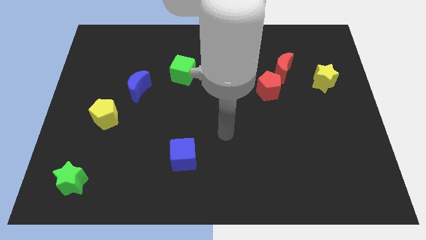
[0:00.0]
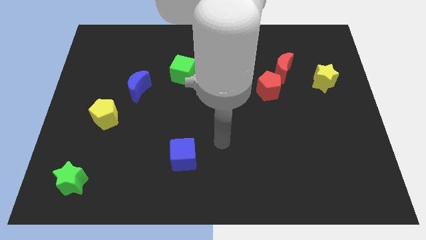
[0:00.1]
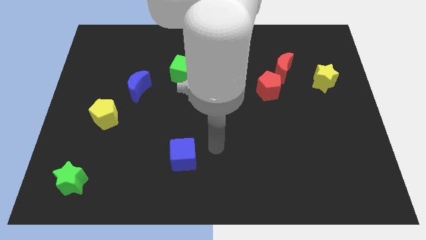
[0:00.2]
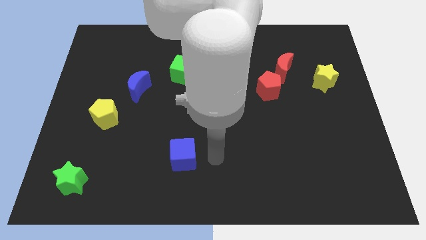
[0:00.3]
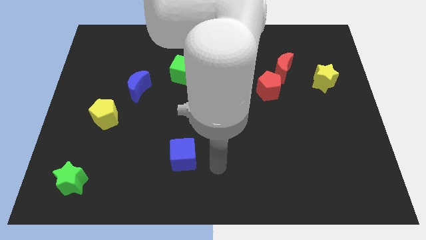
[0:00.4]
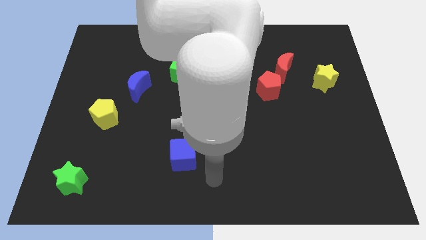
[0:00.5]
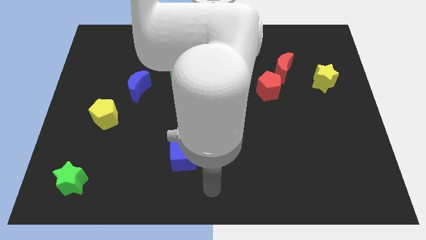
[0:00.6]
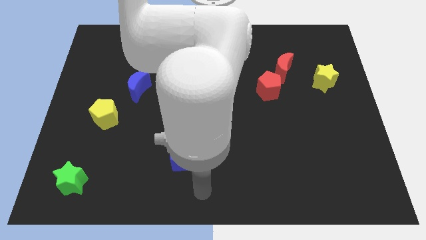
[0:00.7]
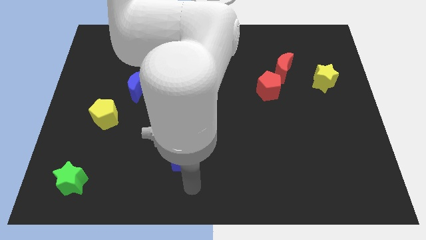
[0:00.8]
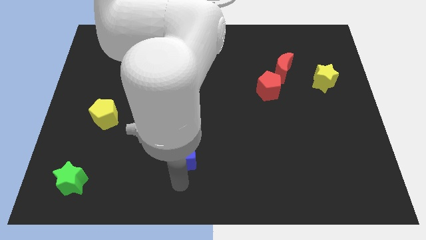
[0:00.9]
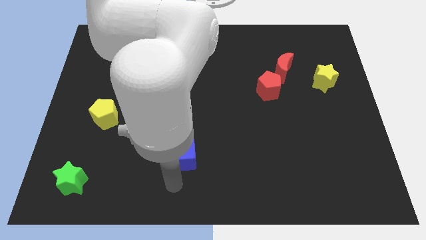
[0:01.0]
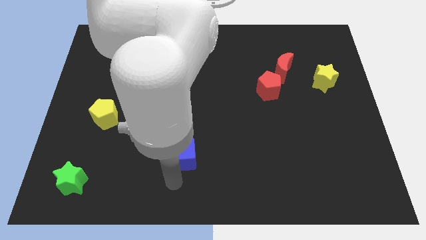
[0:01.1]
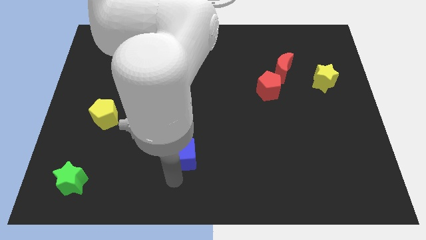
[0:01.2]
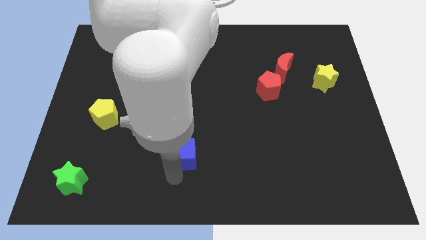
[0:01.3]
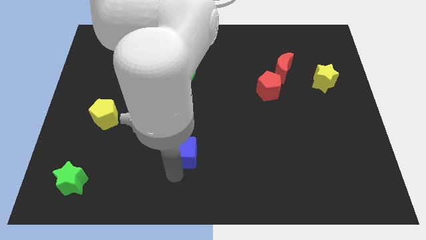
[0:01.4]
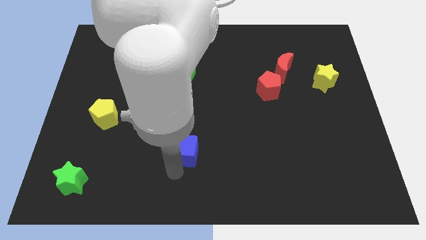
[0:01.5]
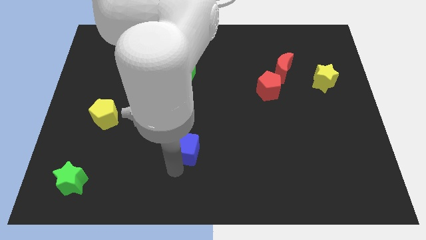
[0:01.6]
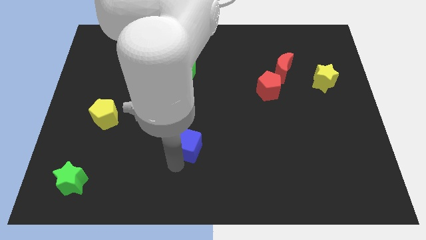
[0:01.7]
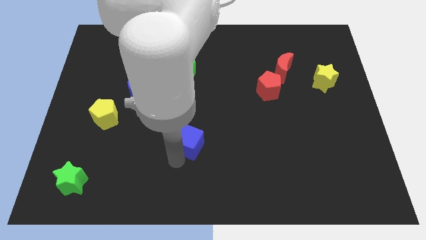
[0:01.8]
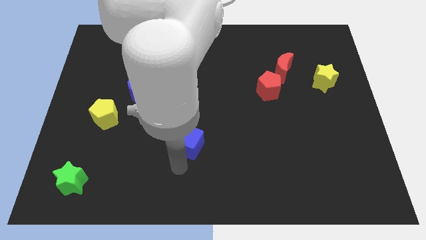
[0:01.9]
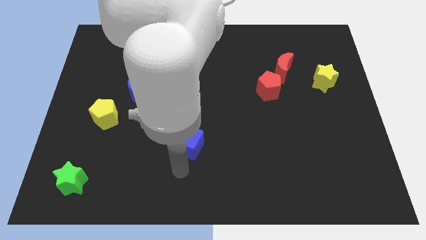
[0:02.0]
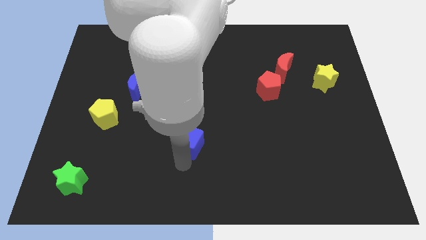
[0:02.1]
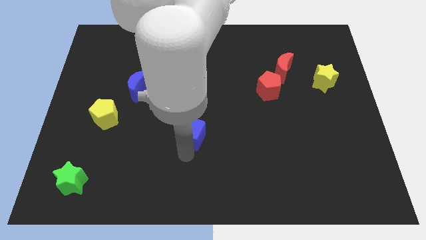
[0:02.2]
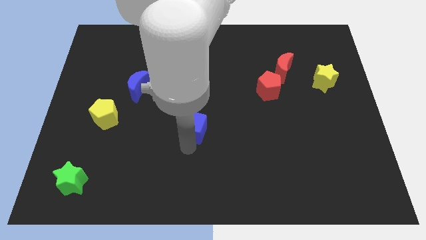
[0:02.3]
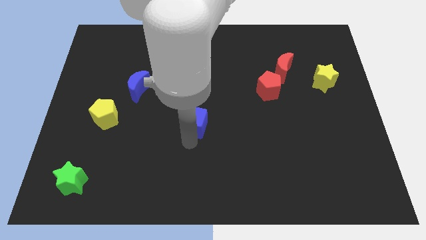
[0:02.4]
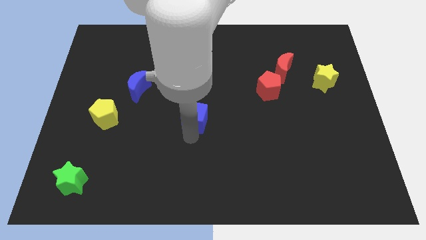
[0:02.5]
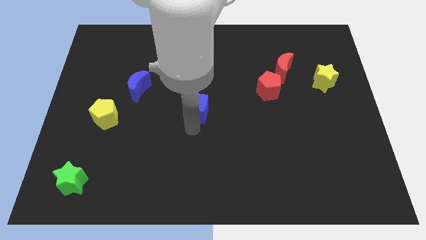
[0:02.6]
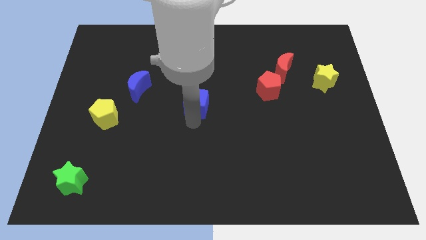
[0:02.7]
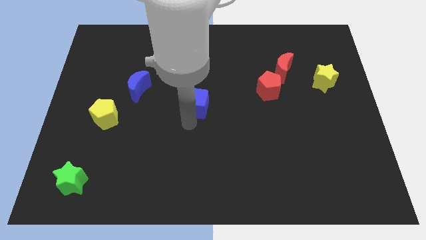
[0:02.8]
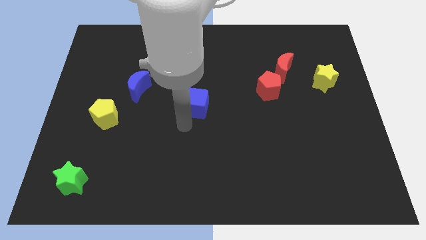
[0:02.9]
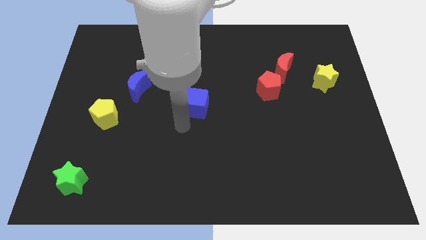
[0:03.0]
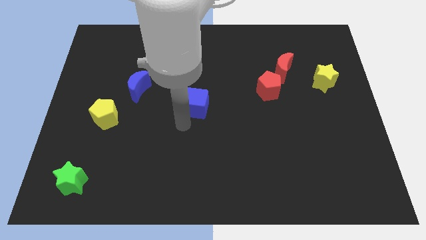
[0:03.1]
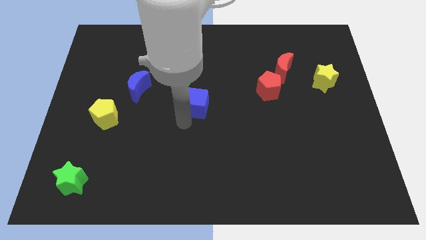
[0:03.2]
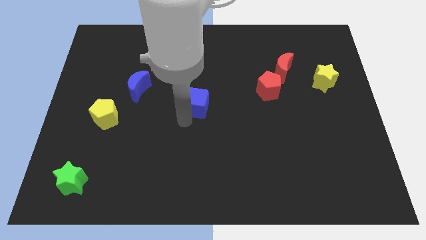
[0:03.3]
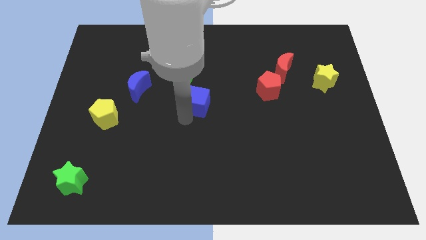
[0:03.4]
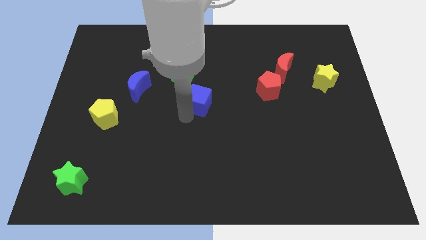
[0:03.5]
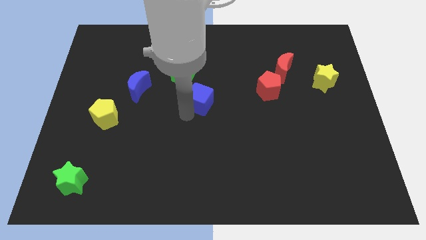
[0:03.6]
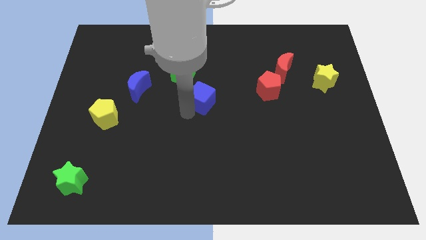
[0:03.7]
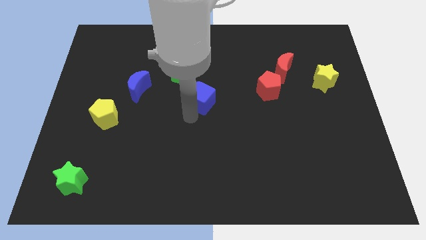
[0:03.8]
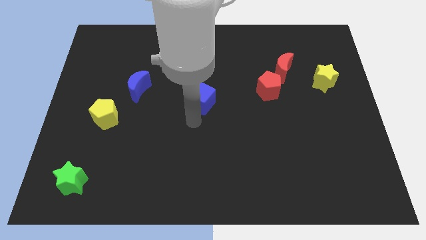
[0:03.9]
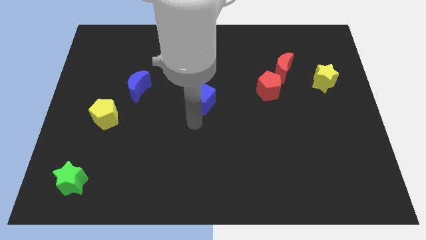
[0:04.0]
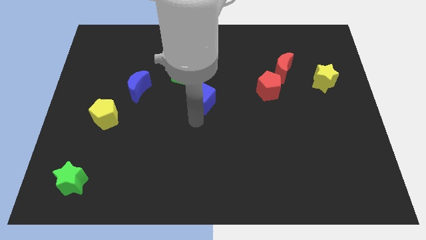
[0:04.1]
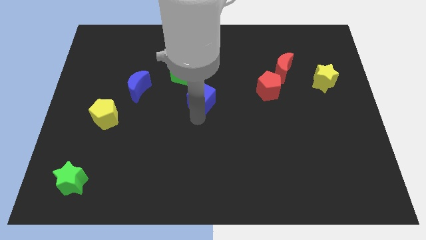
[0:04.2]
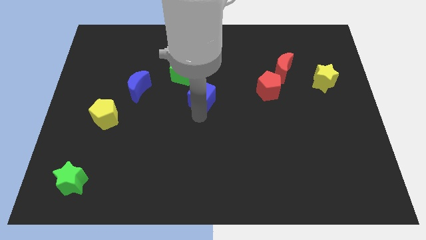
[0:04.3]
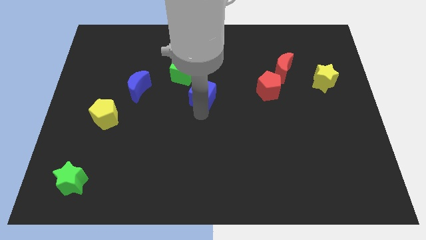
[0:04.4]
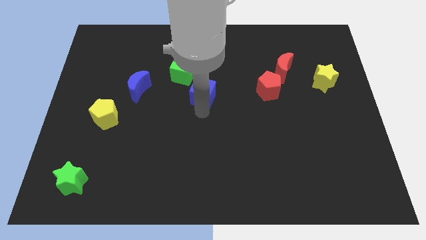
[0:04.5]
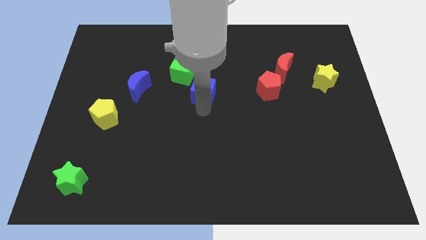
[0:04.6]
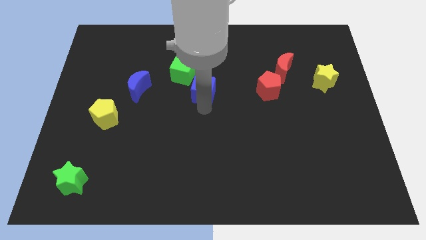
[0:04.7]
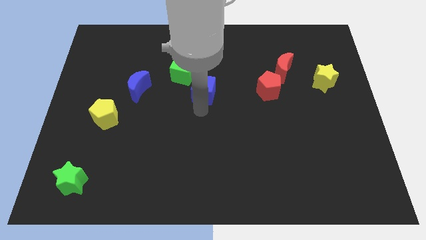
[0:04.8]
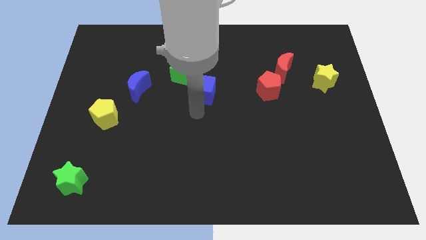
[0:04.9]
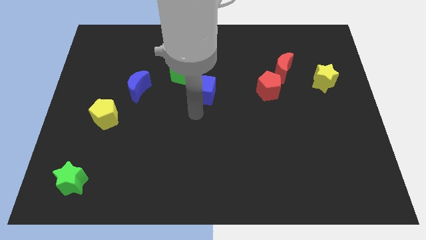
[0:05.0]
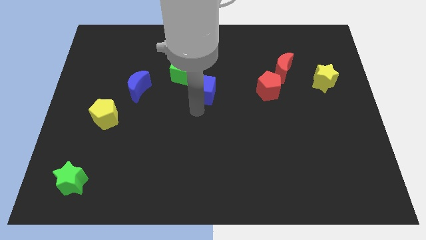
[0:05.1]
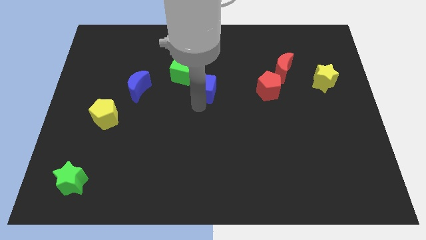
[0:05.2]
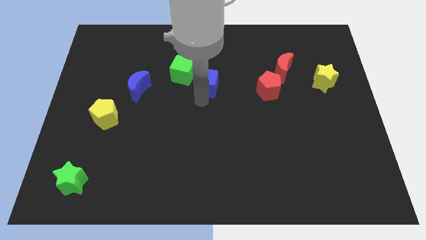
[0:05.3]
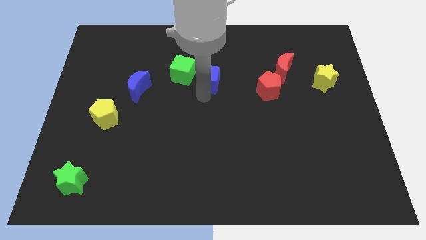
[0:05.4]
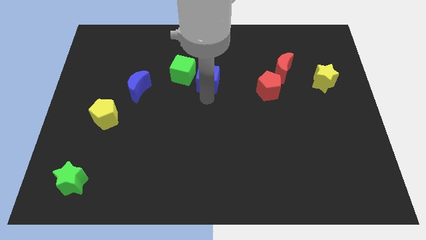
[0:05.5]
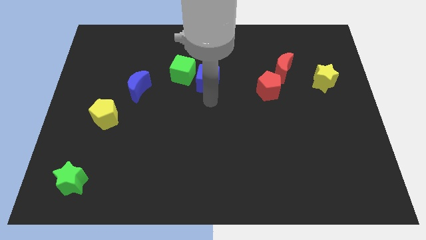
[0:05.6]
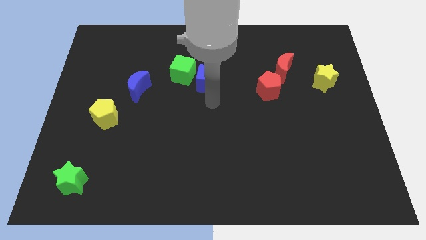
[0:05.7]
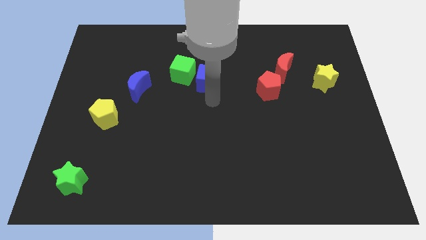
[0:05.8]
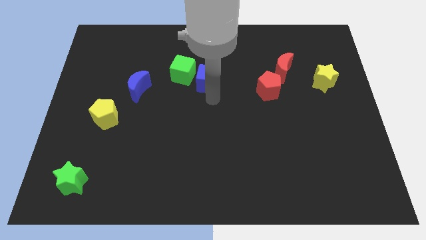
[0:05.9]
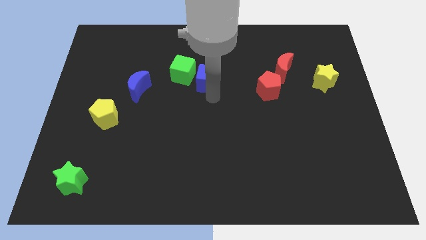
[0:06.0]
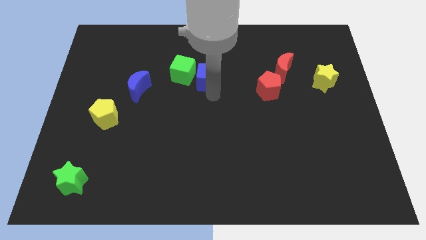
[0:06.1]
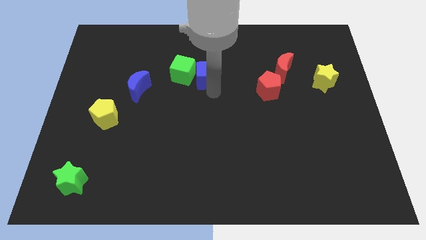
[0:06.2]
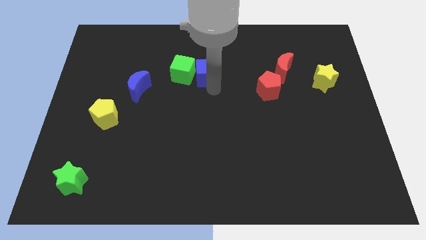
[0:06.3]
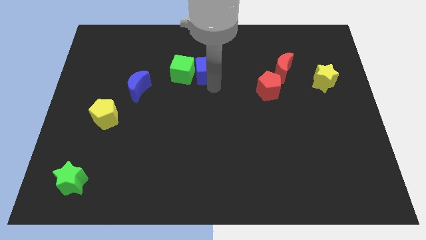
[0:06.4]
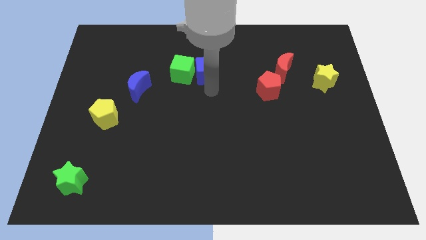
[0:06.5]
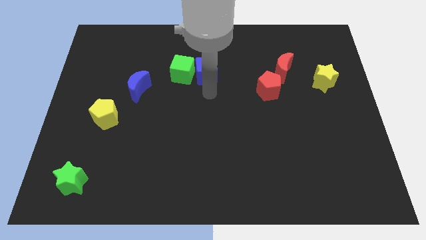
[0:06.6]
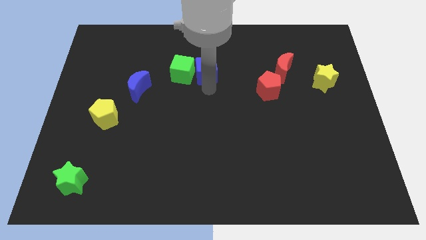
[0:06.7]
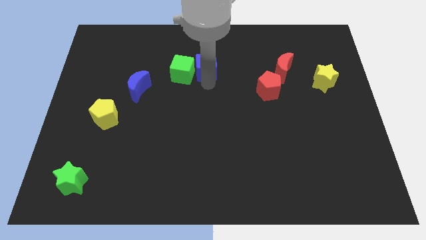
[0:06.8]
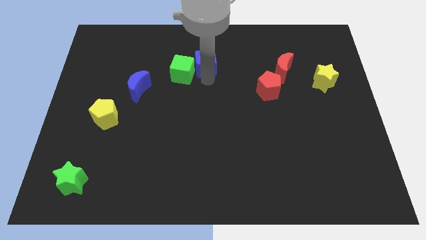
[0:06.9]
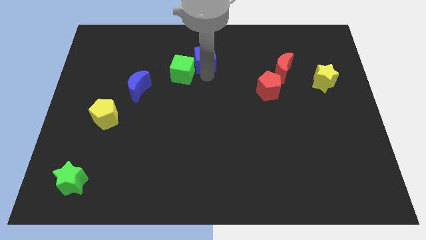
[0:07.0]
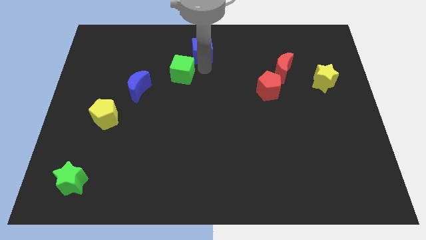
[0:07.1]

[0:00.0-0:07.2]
slide the blue cube to the top side
